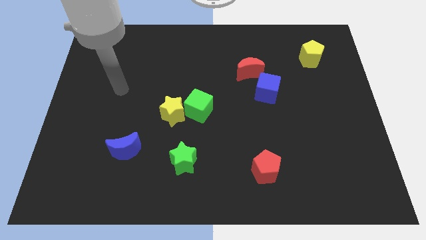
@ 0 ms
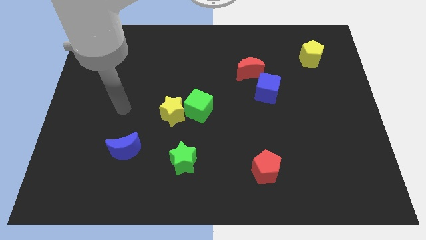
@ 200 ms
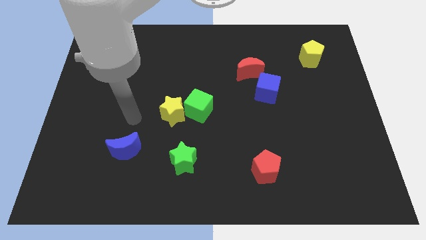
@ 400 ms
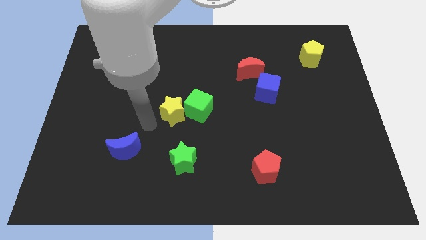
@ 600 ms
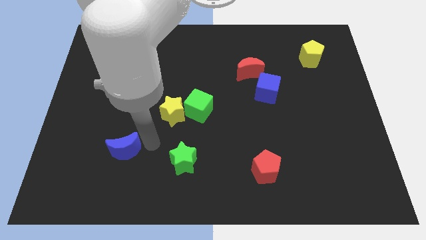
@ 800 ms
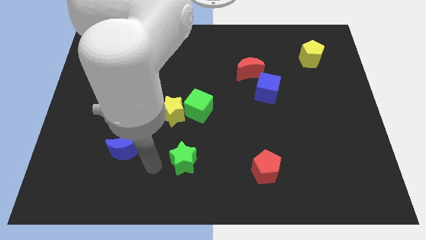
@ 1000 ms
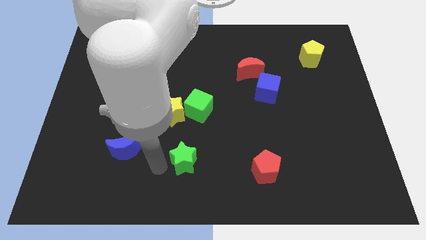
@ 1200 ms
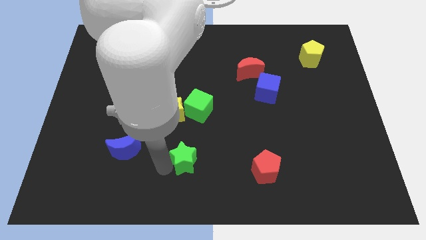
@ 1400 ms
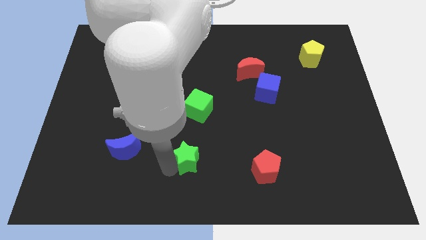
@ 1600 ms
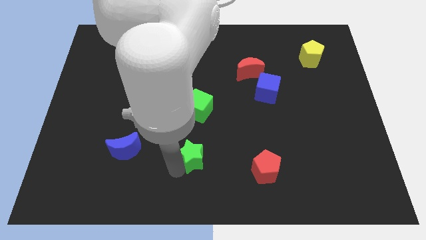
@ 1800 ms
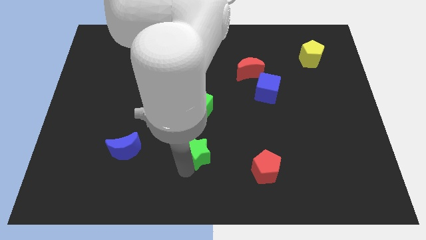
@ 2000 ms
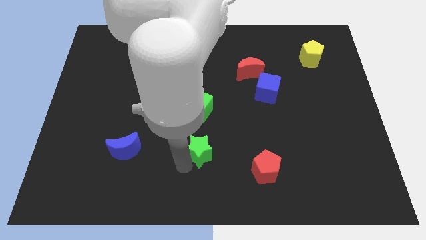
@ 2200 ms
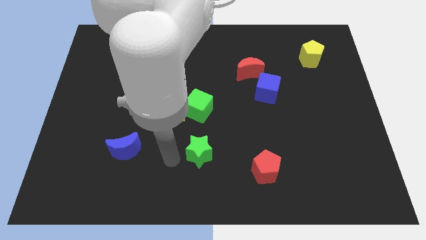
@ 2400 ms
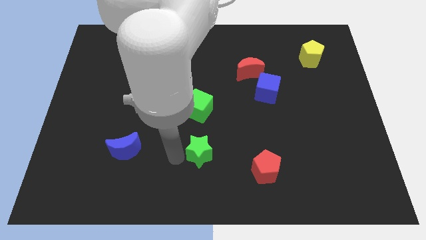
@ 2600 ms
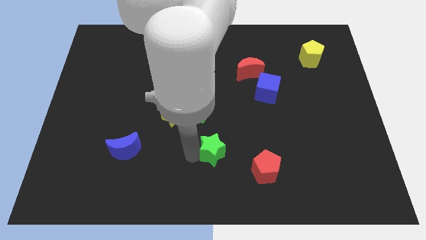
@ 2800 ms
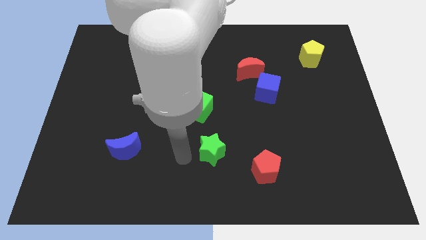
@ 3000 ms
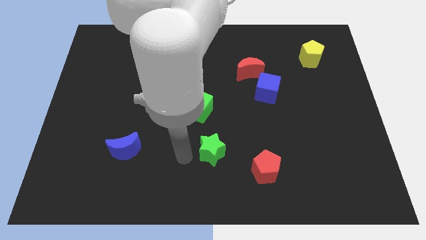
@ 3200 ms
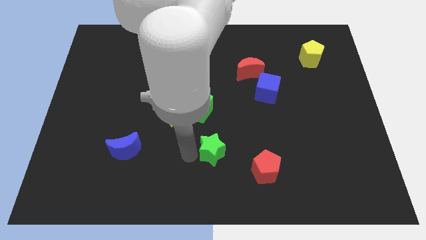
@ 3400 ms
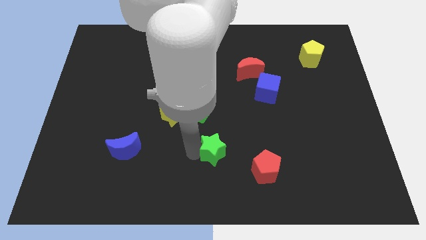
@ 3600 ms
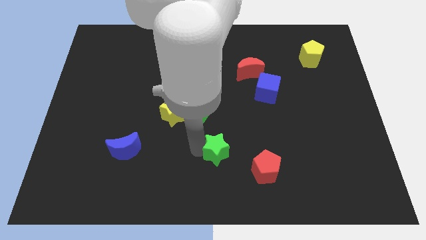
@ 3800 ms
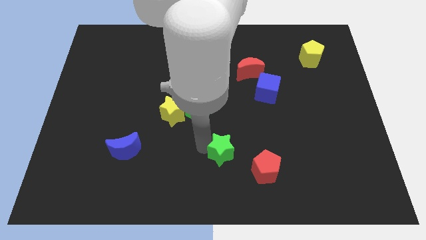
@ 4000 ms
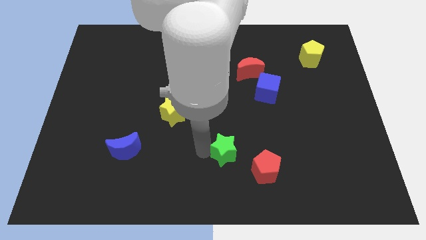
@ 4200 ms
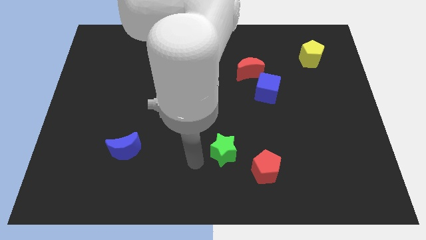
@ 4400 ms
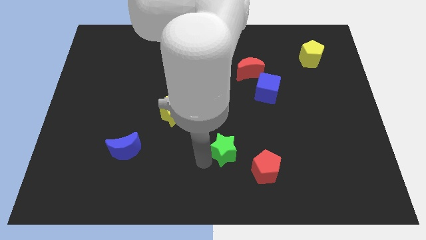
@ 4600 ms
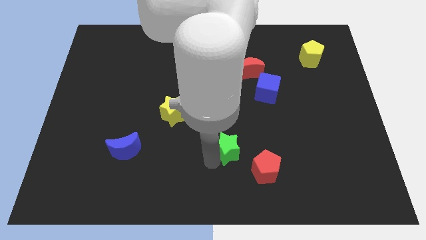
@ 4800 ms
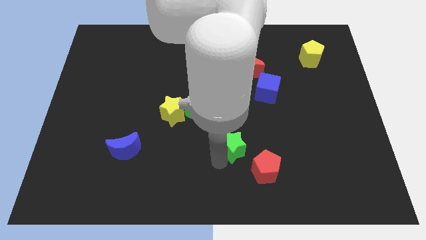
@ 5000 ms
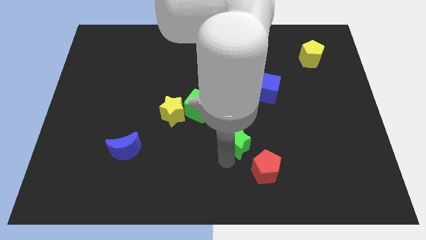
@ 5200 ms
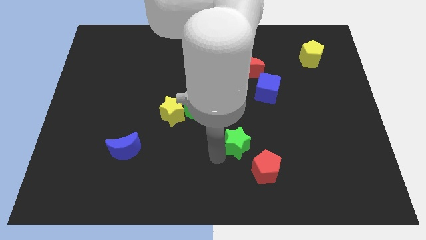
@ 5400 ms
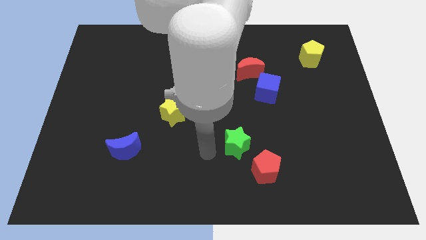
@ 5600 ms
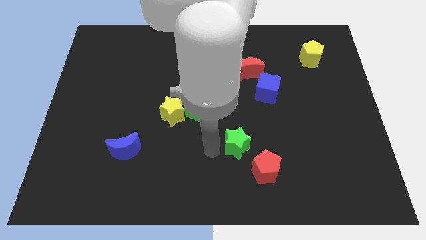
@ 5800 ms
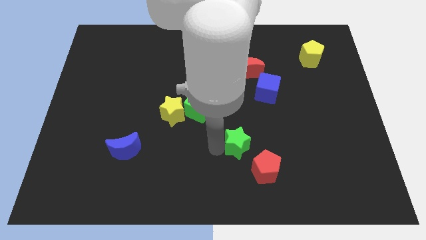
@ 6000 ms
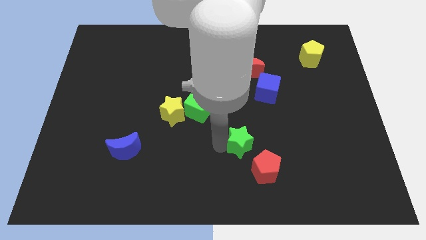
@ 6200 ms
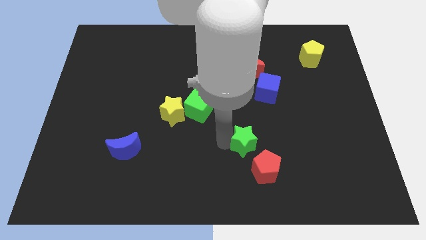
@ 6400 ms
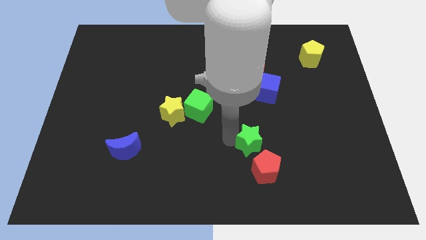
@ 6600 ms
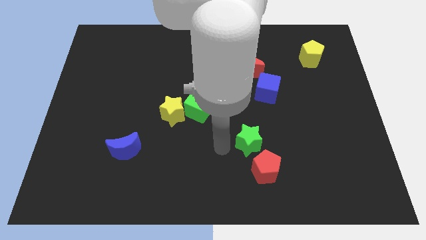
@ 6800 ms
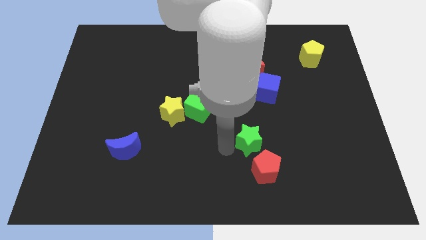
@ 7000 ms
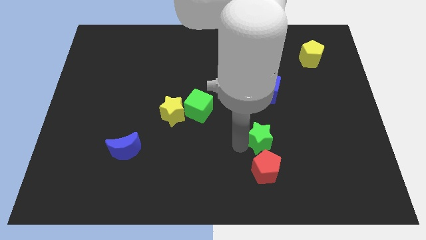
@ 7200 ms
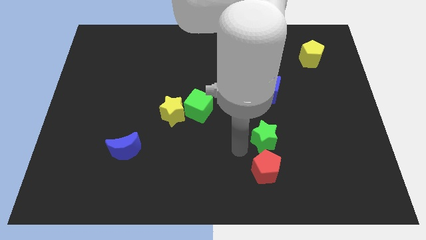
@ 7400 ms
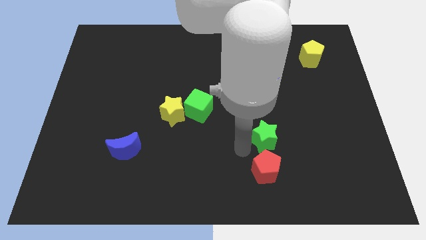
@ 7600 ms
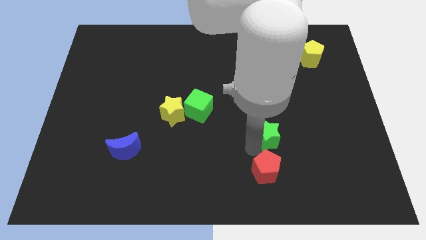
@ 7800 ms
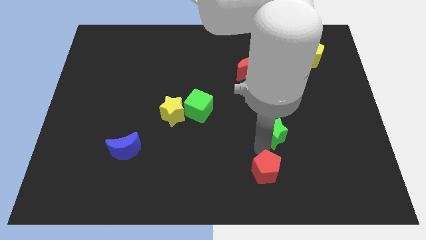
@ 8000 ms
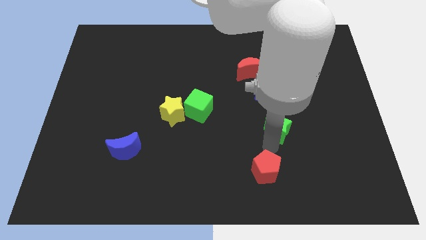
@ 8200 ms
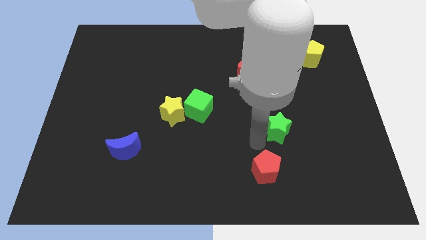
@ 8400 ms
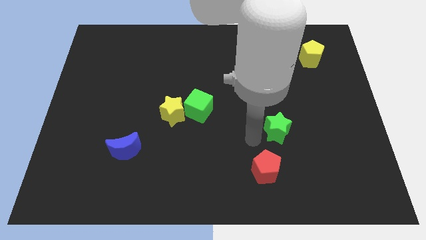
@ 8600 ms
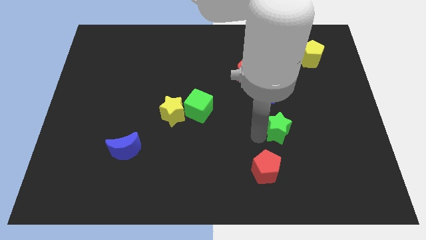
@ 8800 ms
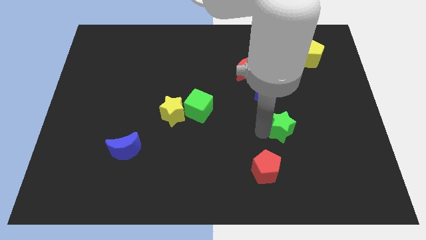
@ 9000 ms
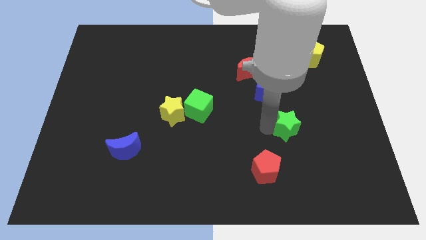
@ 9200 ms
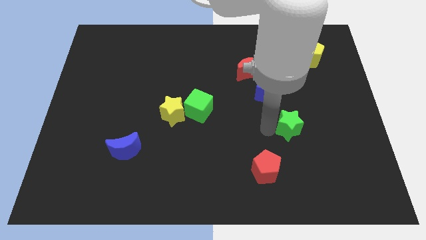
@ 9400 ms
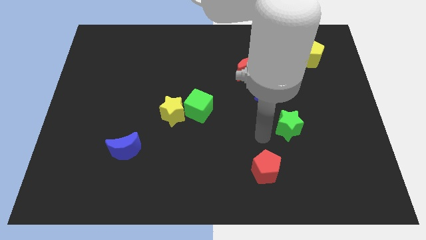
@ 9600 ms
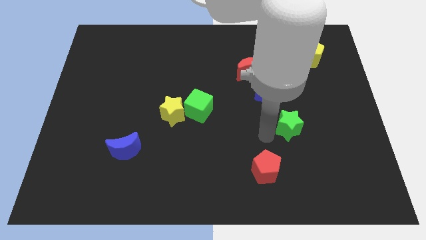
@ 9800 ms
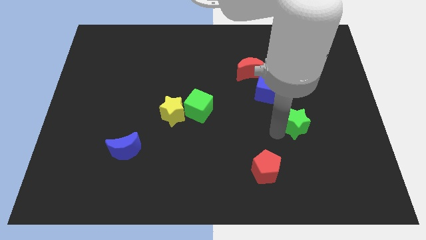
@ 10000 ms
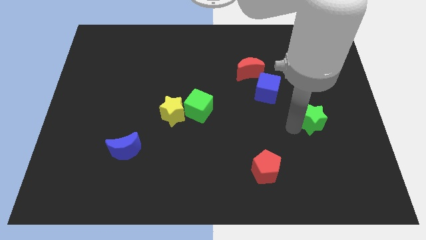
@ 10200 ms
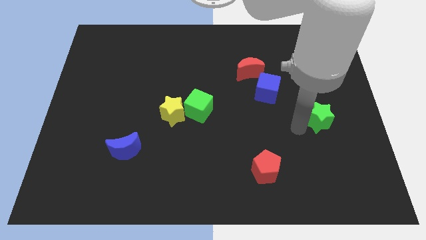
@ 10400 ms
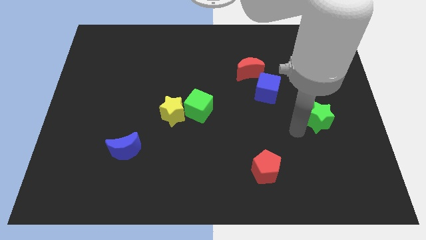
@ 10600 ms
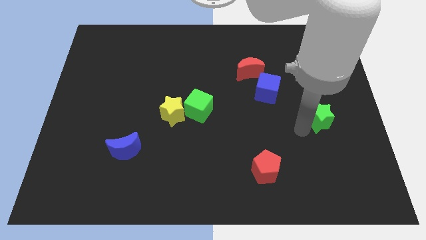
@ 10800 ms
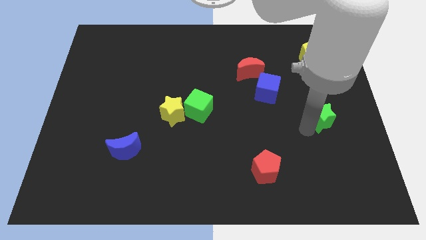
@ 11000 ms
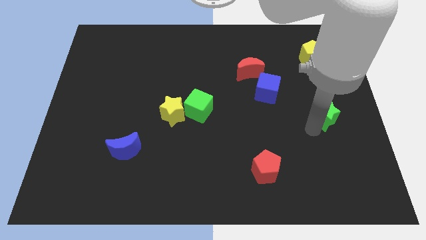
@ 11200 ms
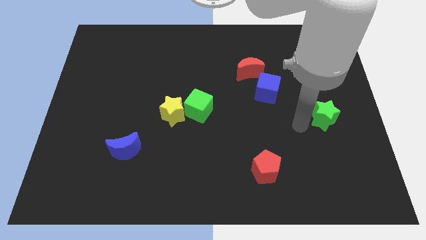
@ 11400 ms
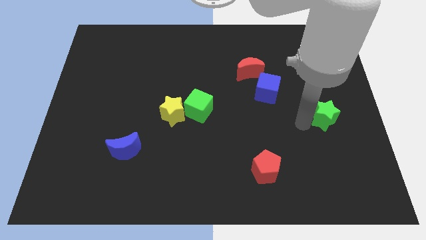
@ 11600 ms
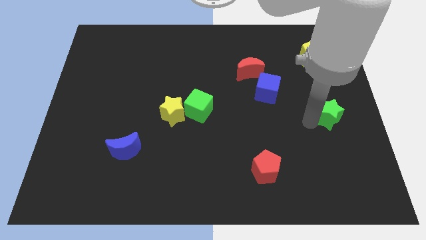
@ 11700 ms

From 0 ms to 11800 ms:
put the green star to the center right
